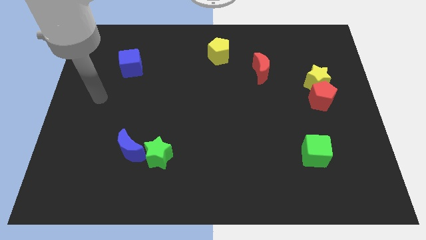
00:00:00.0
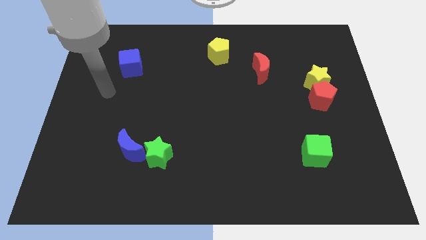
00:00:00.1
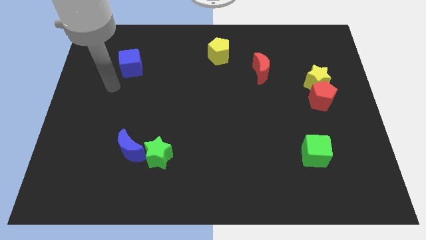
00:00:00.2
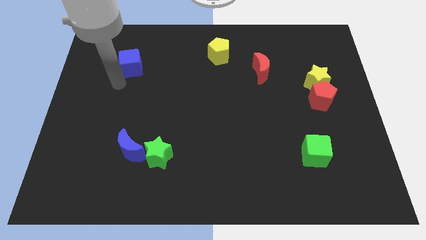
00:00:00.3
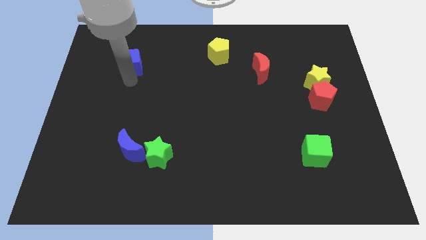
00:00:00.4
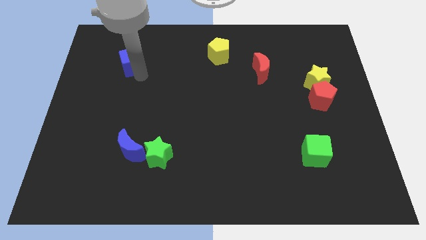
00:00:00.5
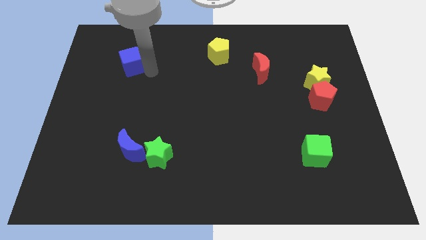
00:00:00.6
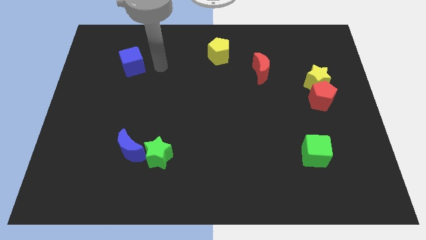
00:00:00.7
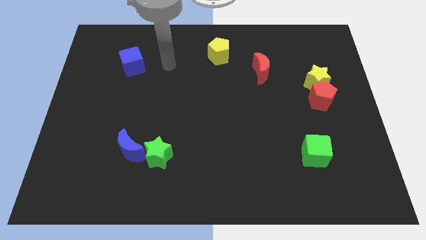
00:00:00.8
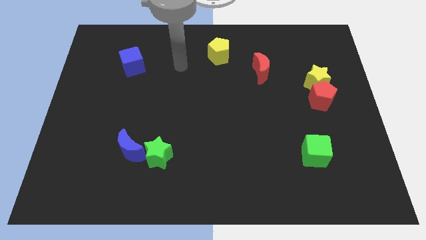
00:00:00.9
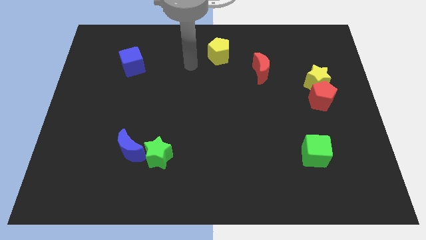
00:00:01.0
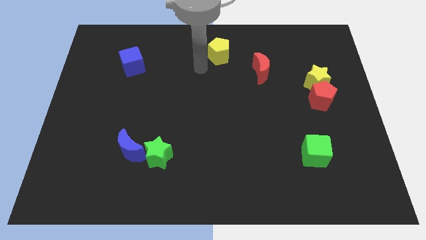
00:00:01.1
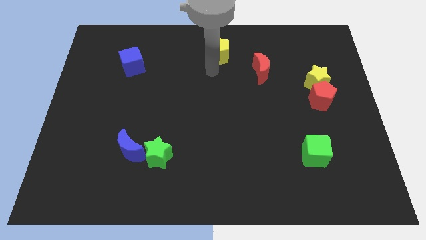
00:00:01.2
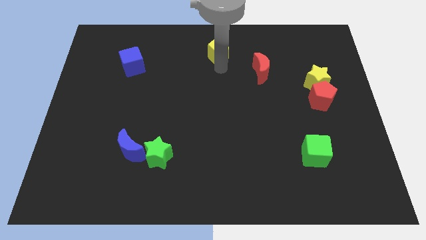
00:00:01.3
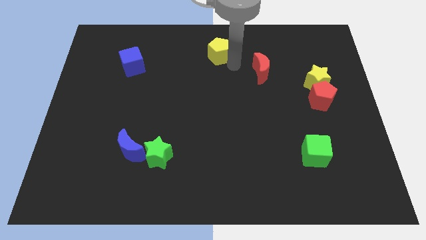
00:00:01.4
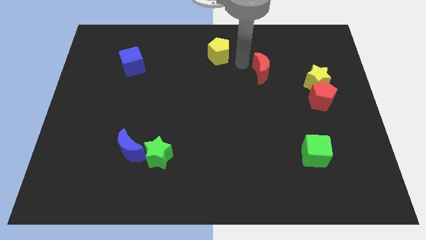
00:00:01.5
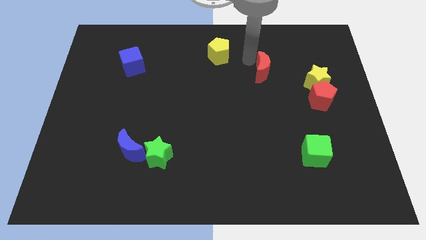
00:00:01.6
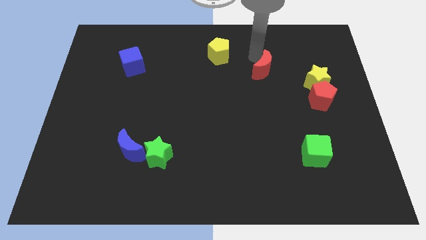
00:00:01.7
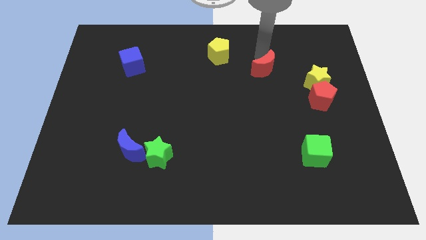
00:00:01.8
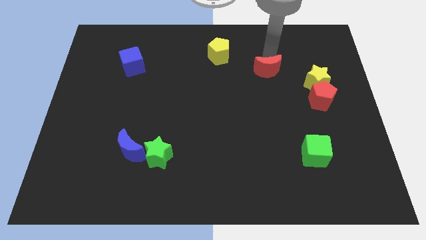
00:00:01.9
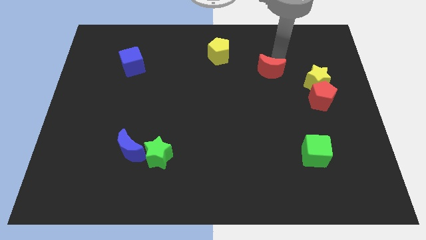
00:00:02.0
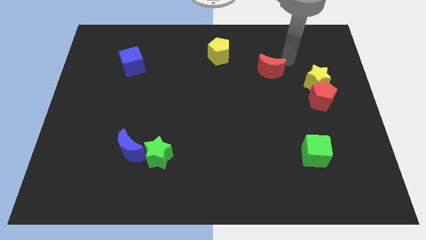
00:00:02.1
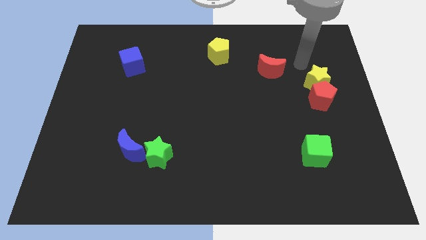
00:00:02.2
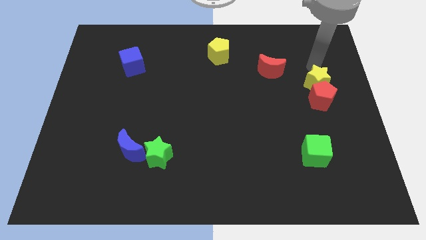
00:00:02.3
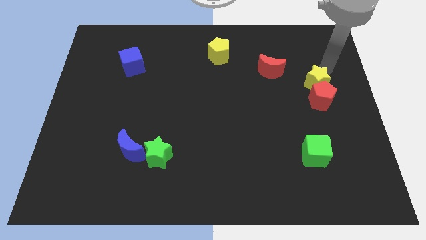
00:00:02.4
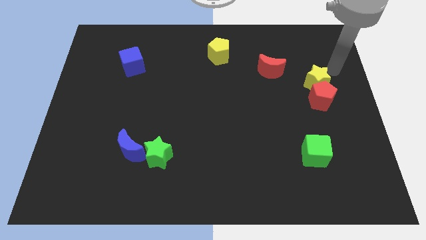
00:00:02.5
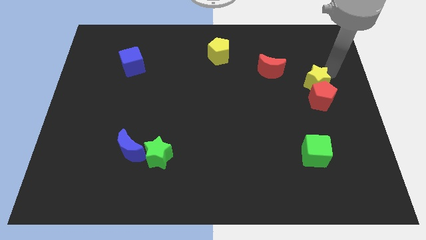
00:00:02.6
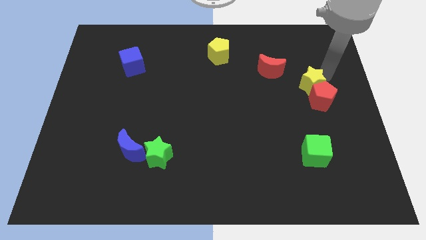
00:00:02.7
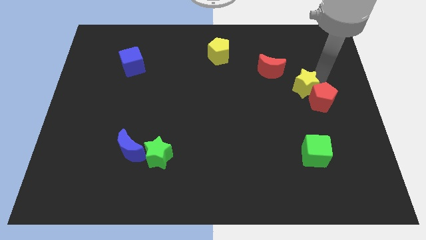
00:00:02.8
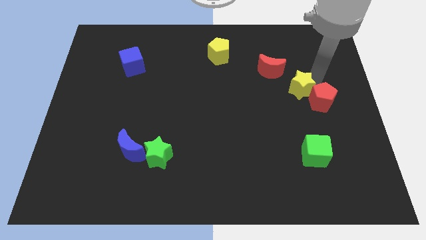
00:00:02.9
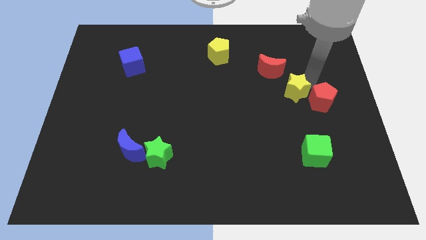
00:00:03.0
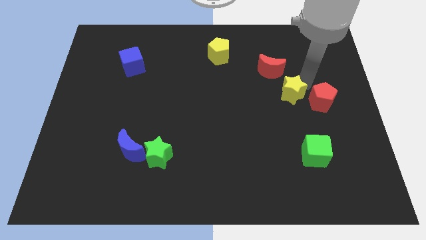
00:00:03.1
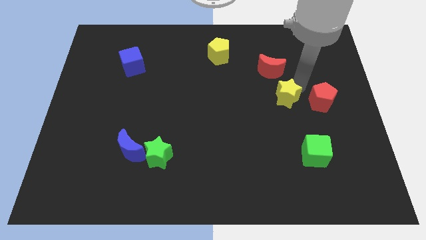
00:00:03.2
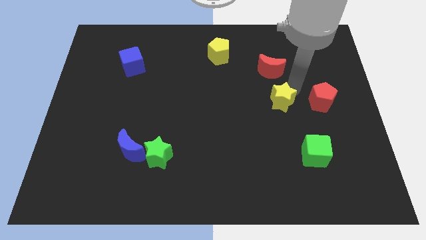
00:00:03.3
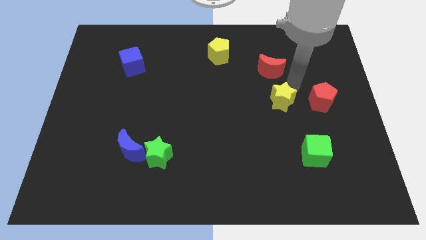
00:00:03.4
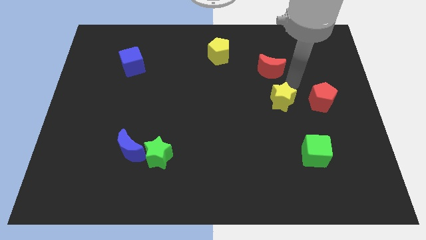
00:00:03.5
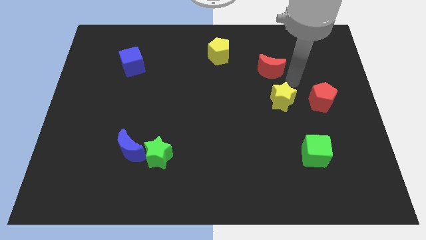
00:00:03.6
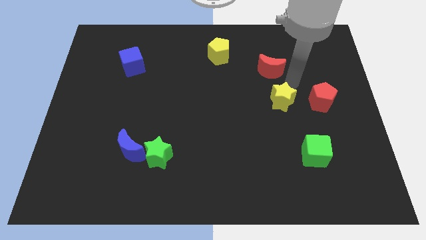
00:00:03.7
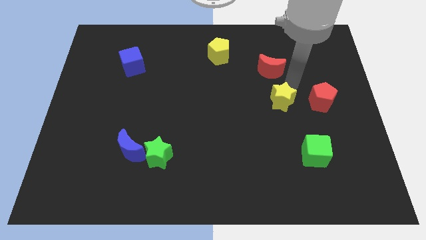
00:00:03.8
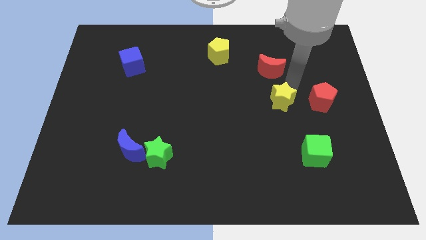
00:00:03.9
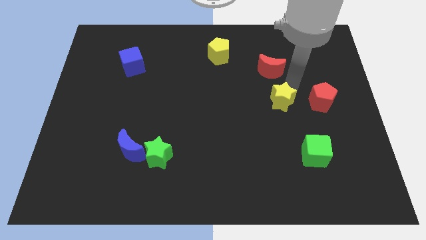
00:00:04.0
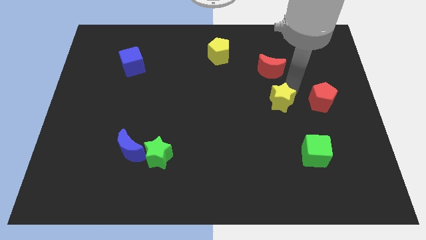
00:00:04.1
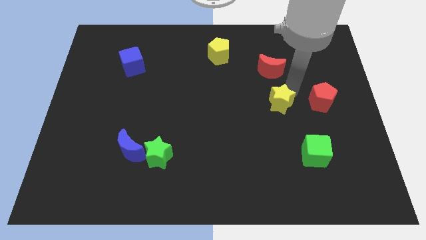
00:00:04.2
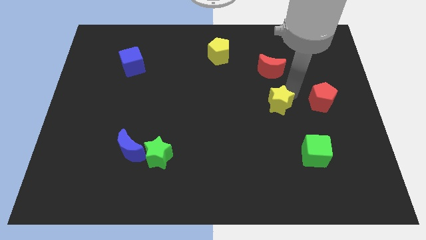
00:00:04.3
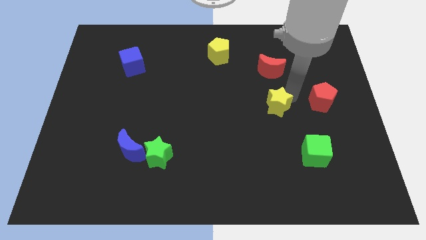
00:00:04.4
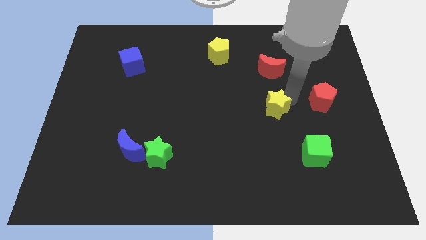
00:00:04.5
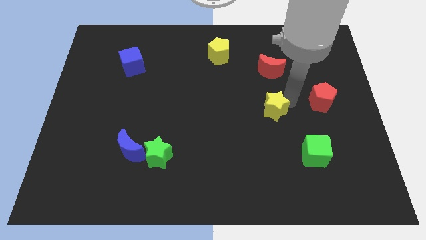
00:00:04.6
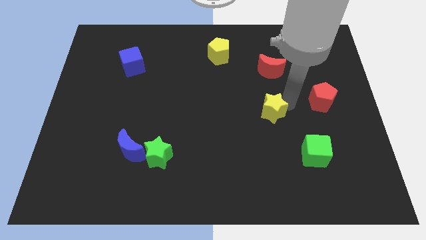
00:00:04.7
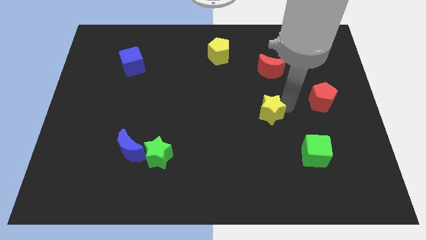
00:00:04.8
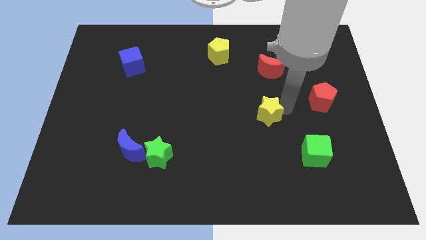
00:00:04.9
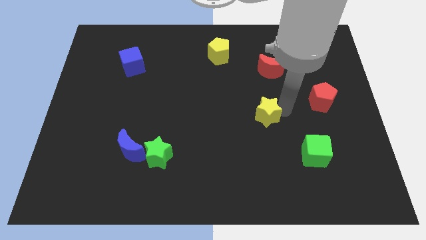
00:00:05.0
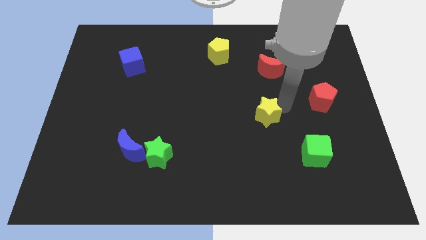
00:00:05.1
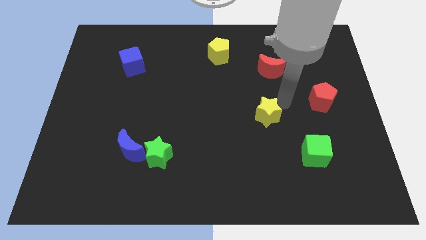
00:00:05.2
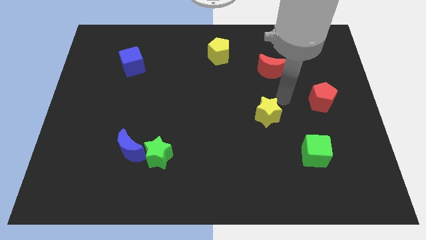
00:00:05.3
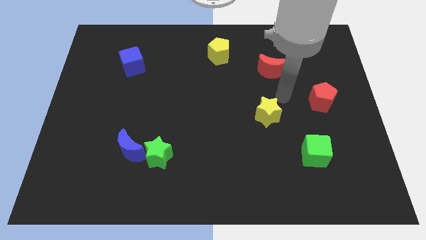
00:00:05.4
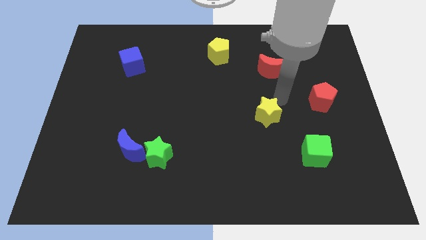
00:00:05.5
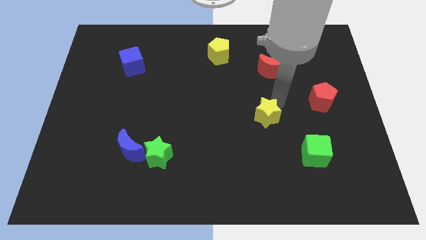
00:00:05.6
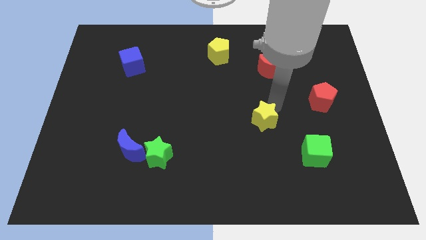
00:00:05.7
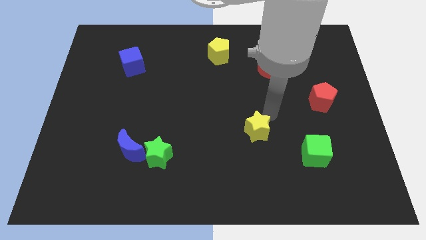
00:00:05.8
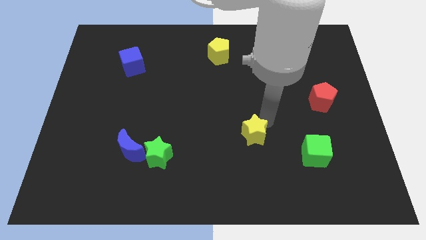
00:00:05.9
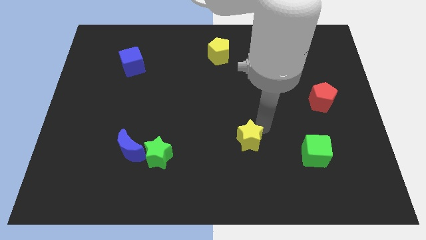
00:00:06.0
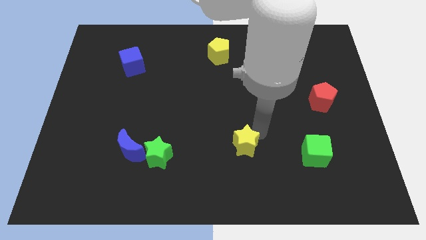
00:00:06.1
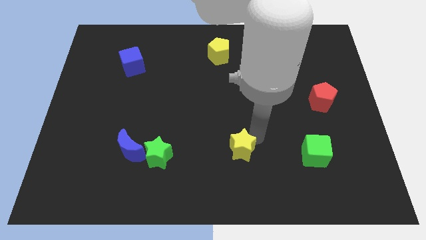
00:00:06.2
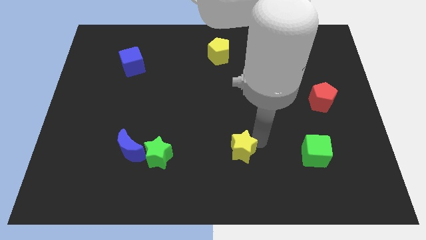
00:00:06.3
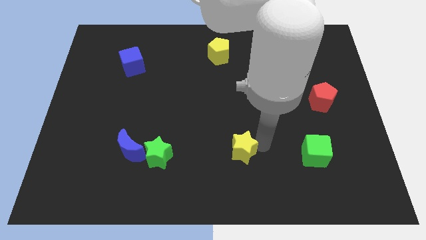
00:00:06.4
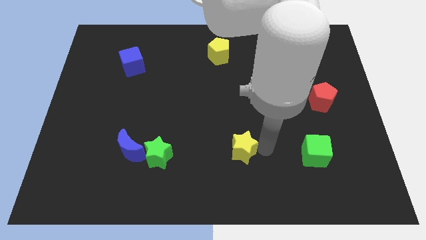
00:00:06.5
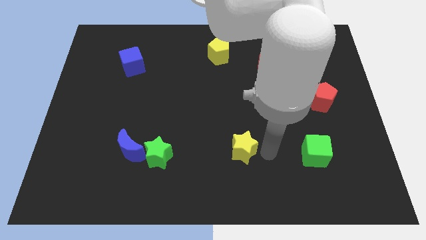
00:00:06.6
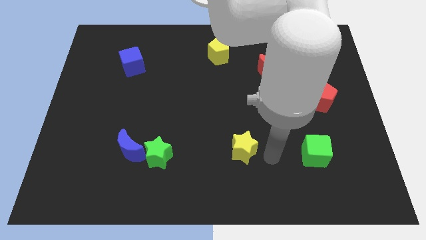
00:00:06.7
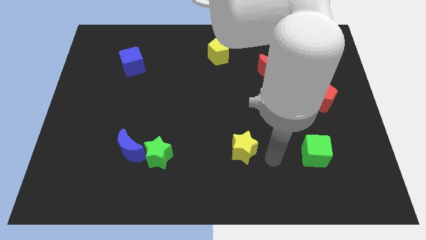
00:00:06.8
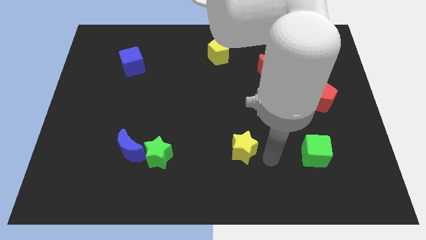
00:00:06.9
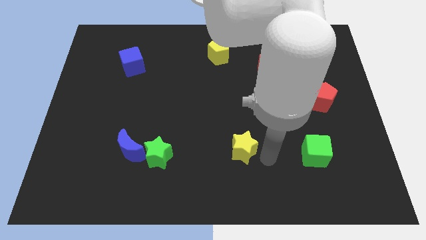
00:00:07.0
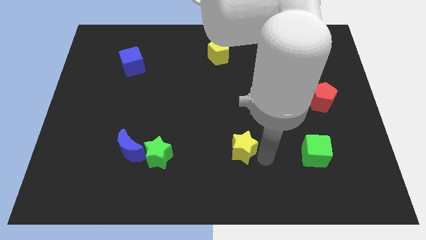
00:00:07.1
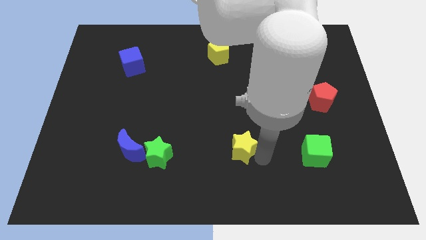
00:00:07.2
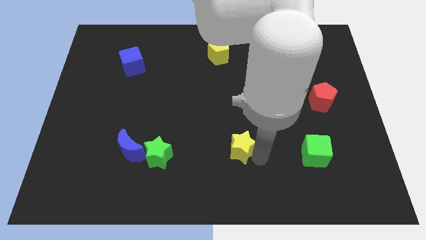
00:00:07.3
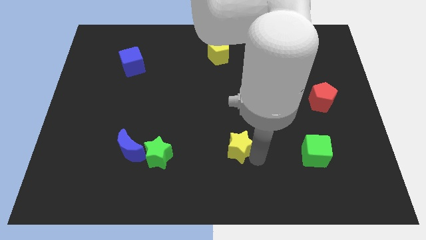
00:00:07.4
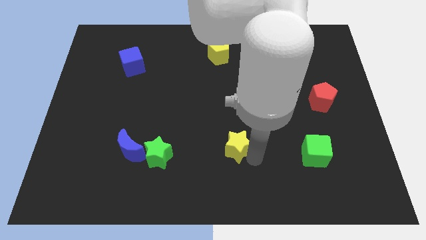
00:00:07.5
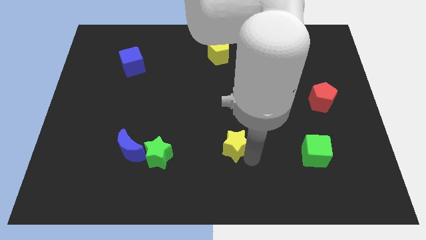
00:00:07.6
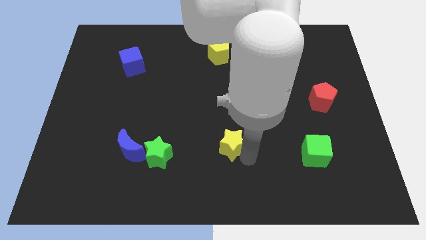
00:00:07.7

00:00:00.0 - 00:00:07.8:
put the yellow star right of the green star
